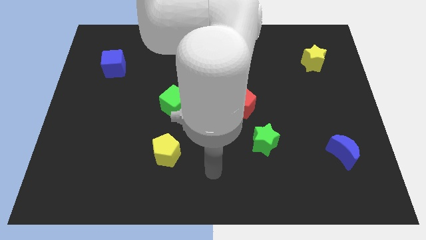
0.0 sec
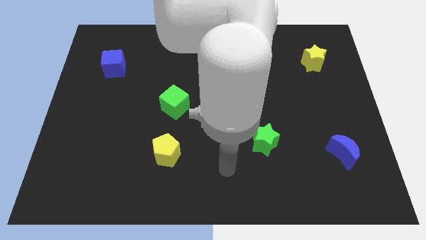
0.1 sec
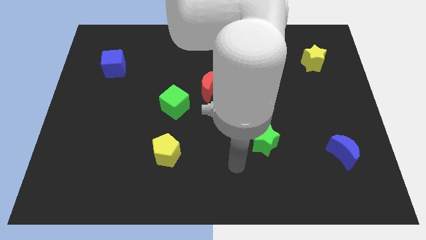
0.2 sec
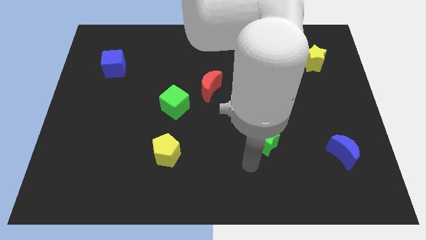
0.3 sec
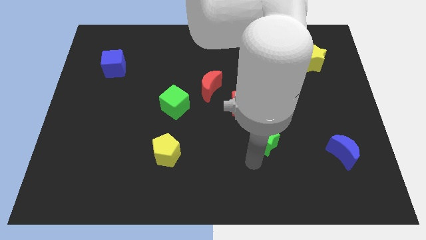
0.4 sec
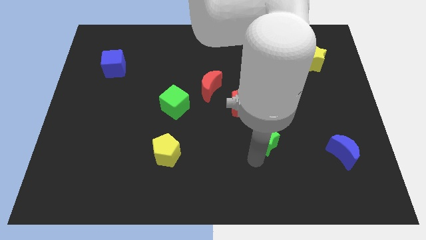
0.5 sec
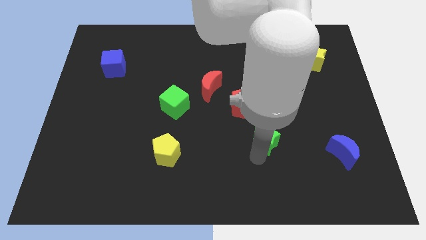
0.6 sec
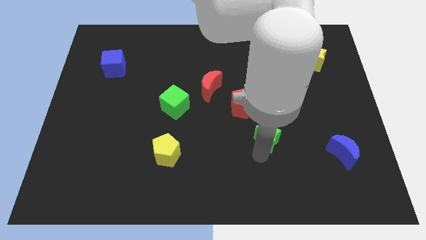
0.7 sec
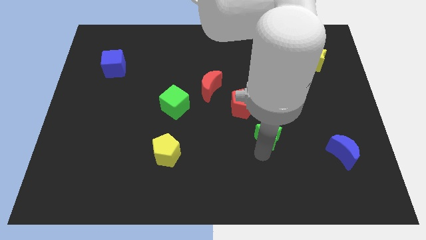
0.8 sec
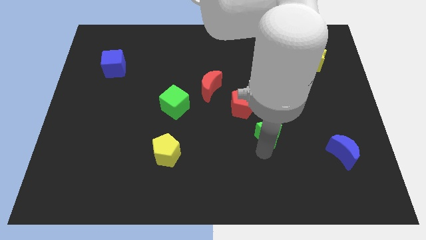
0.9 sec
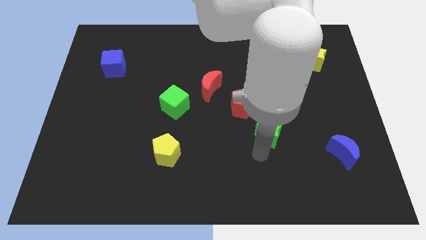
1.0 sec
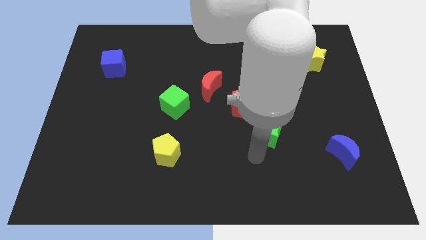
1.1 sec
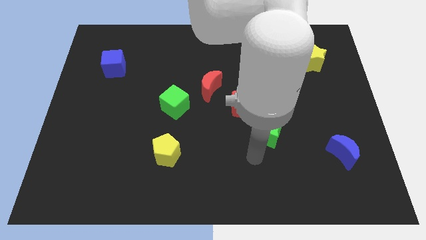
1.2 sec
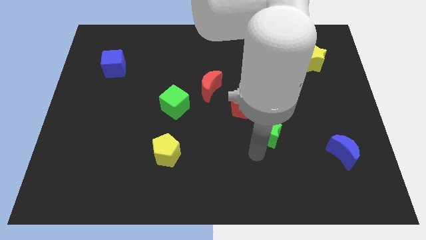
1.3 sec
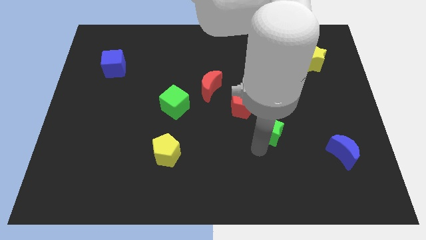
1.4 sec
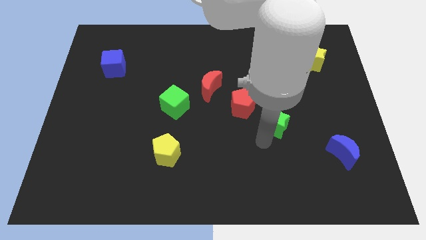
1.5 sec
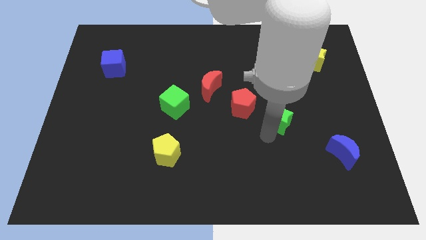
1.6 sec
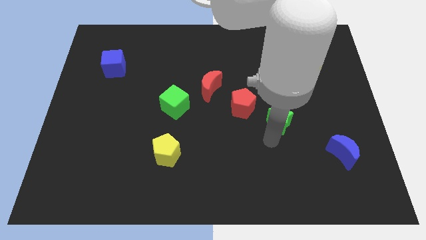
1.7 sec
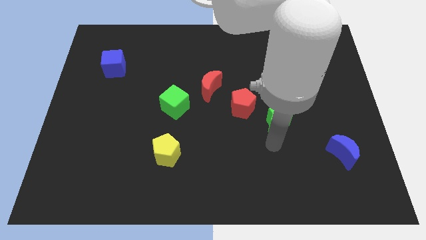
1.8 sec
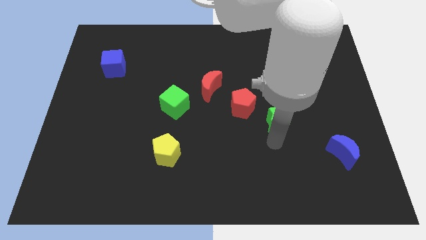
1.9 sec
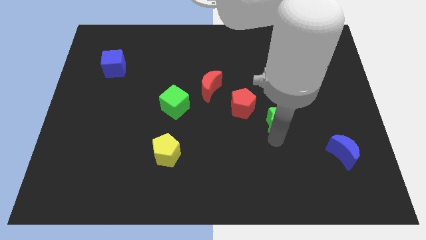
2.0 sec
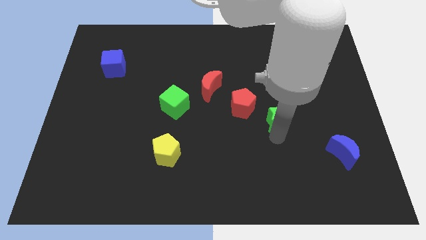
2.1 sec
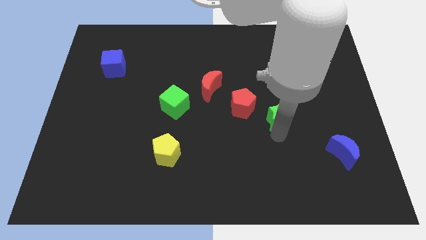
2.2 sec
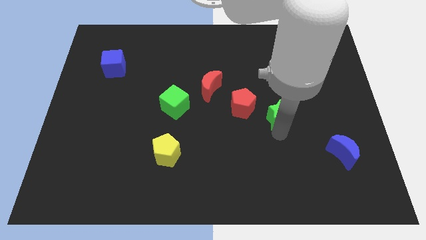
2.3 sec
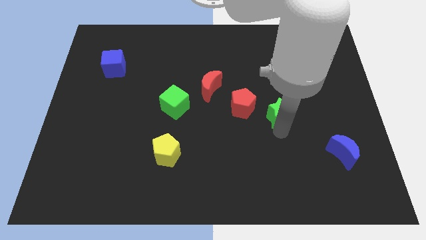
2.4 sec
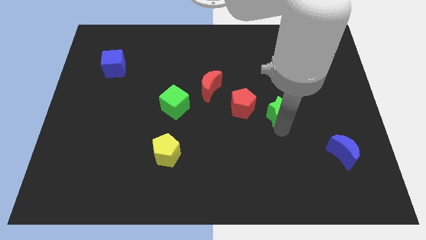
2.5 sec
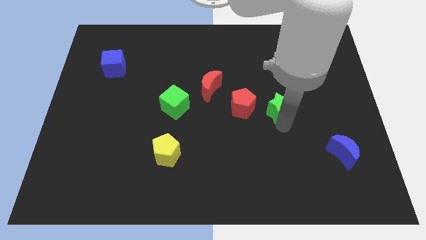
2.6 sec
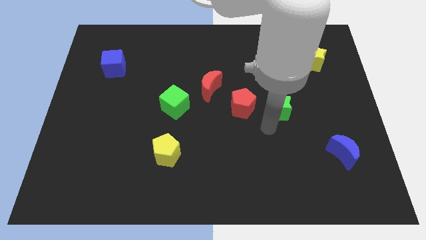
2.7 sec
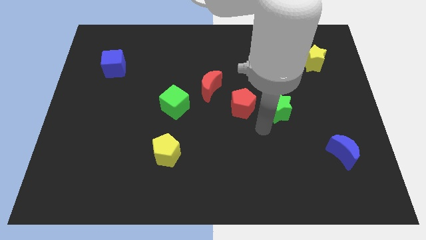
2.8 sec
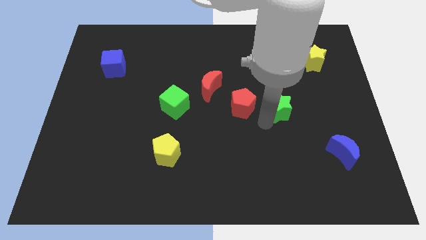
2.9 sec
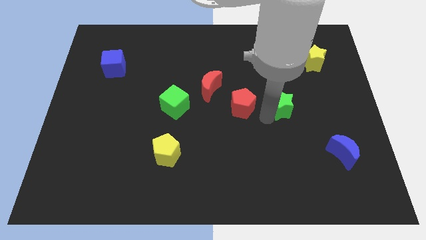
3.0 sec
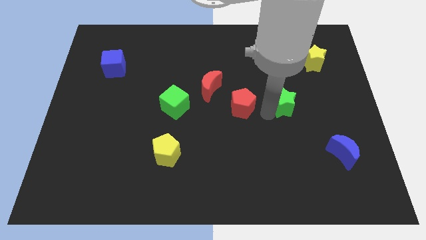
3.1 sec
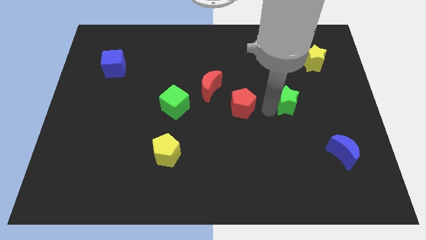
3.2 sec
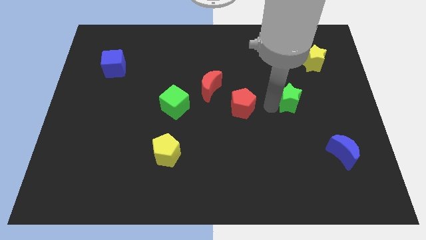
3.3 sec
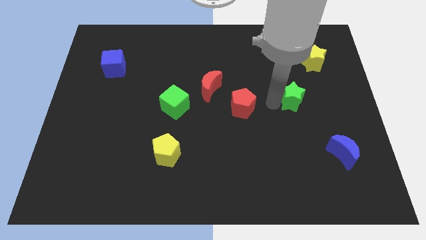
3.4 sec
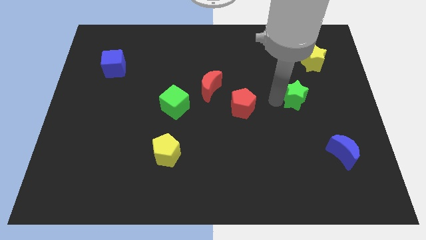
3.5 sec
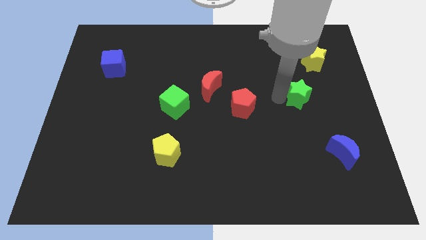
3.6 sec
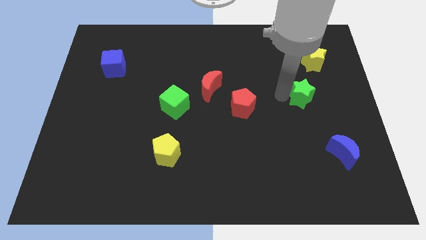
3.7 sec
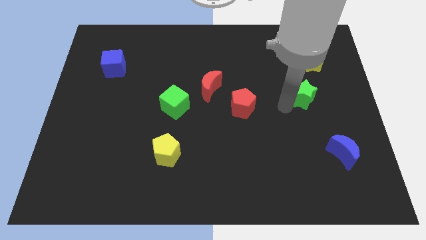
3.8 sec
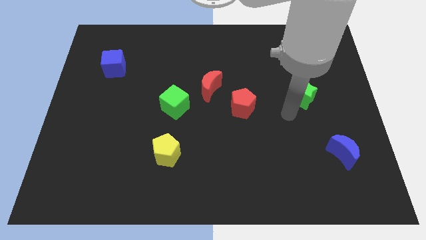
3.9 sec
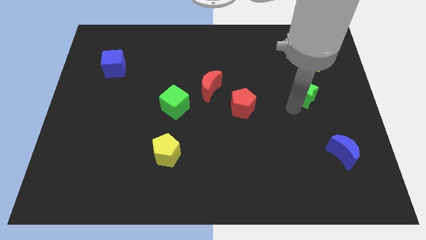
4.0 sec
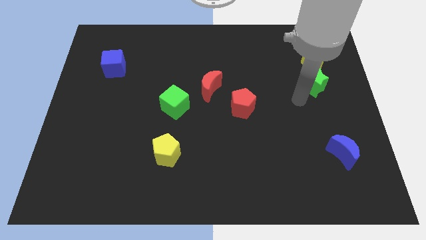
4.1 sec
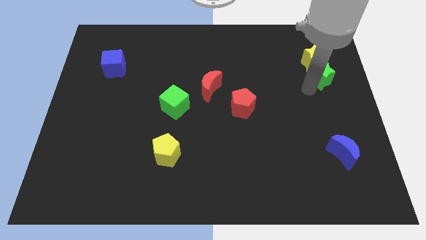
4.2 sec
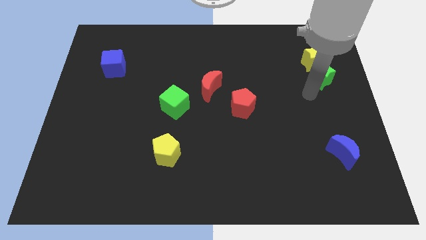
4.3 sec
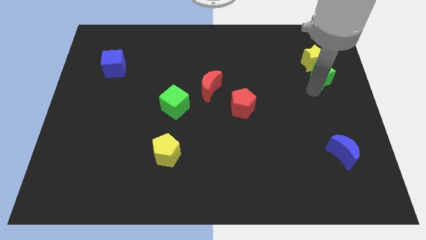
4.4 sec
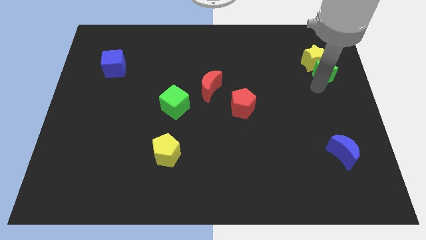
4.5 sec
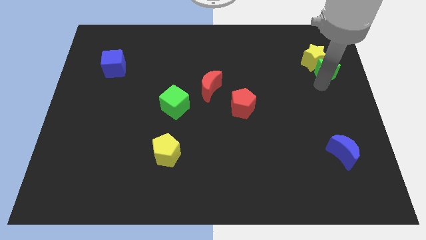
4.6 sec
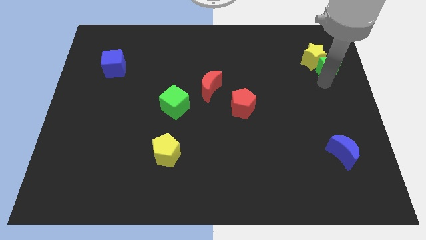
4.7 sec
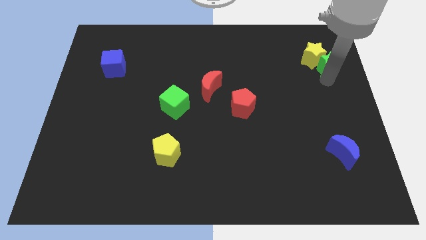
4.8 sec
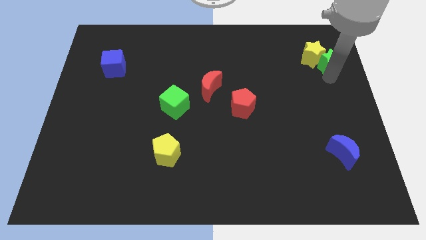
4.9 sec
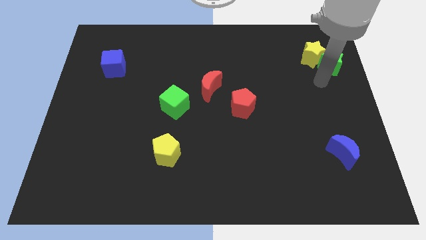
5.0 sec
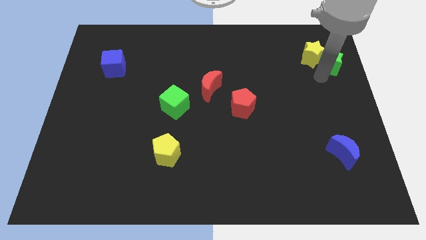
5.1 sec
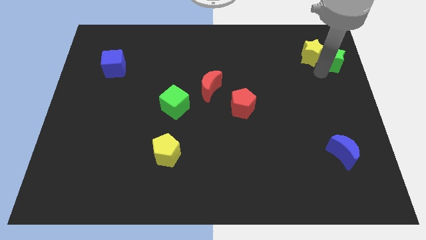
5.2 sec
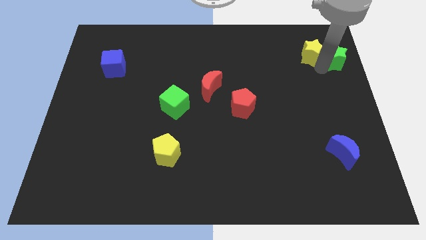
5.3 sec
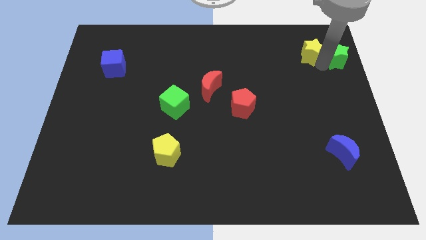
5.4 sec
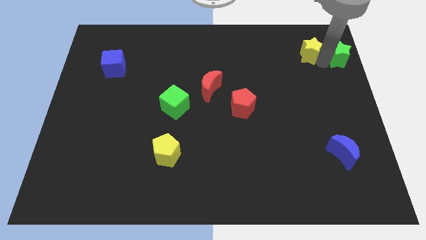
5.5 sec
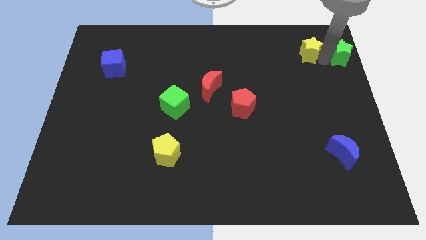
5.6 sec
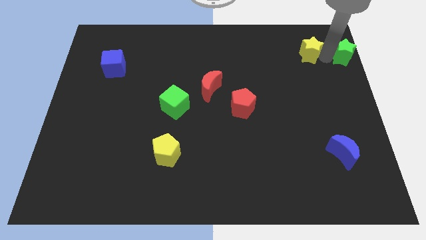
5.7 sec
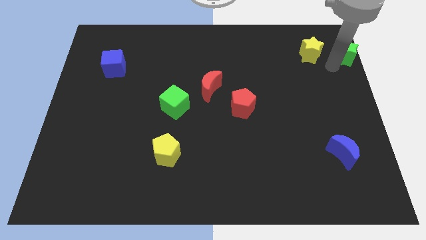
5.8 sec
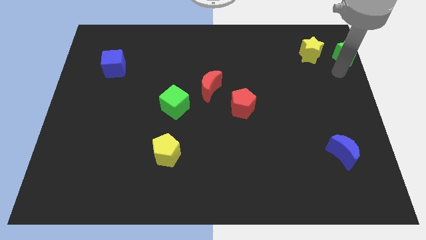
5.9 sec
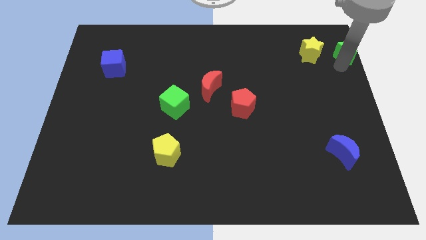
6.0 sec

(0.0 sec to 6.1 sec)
push the green star to the top right
